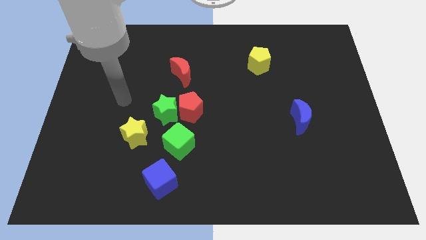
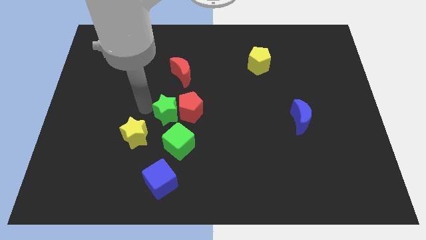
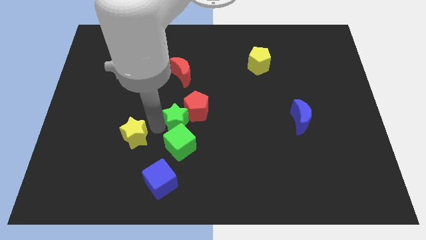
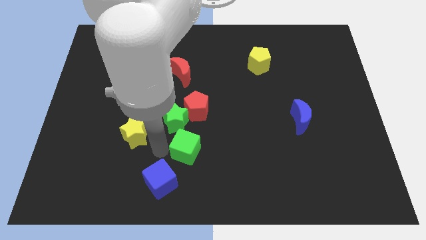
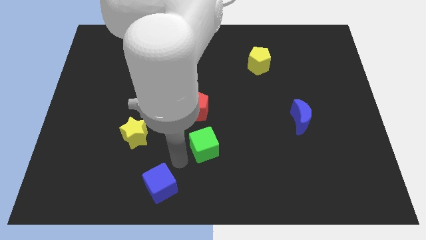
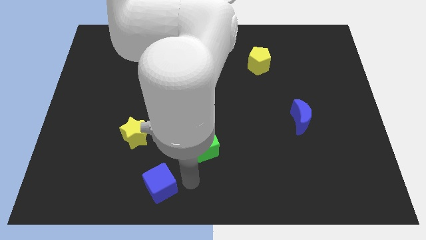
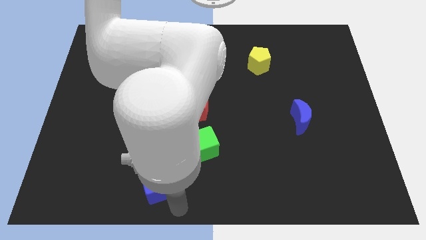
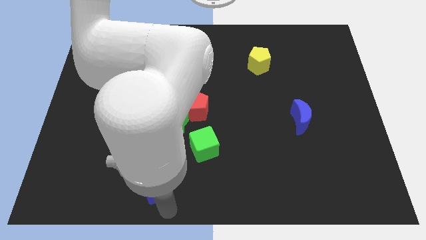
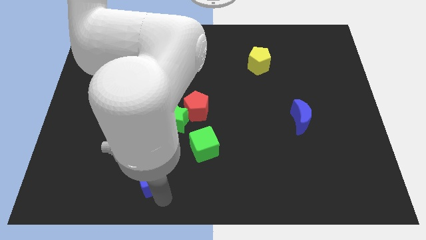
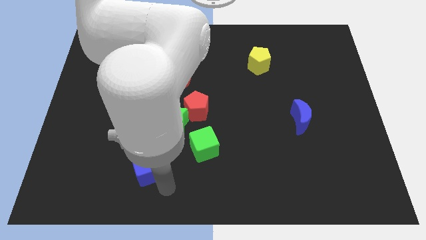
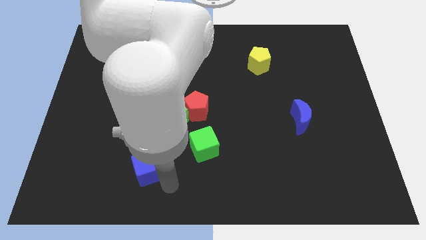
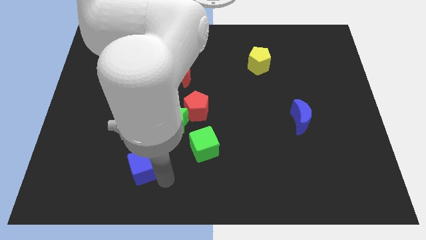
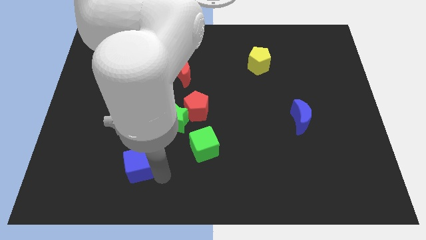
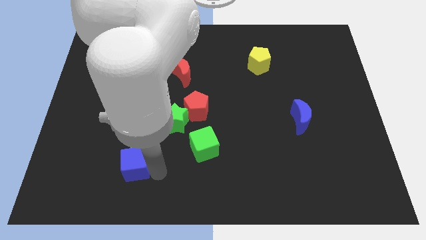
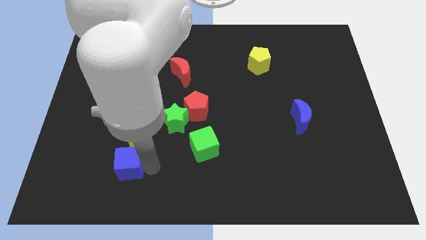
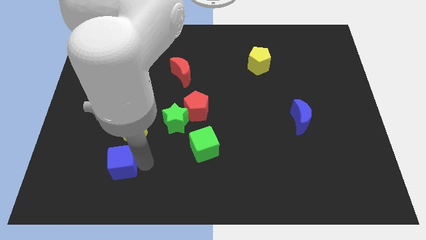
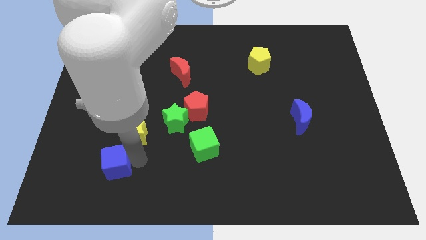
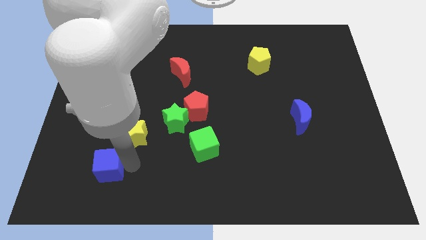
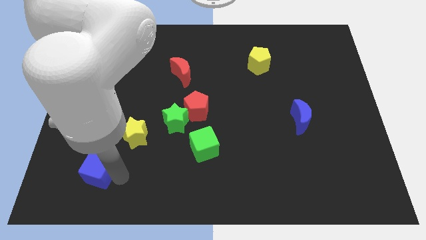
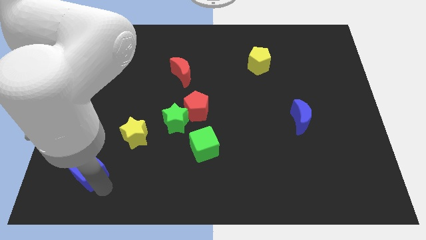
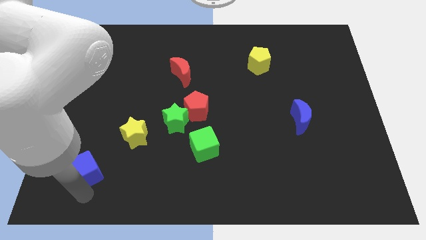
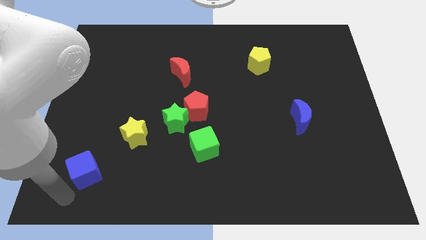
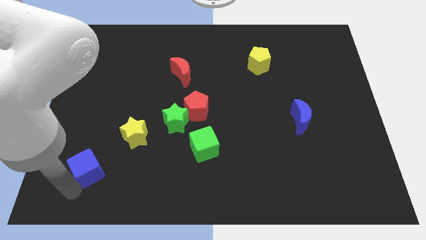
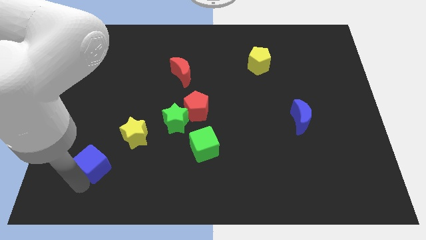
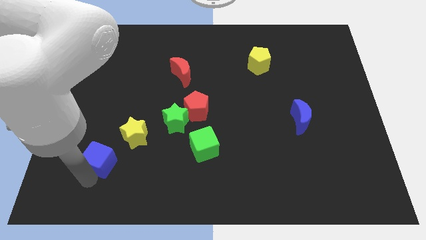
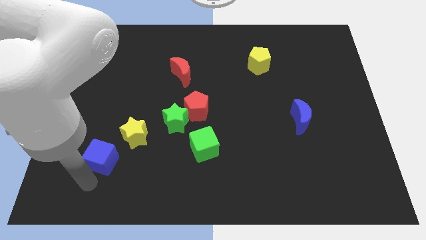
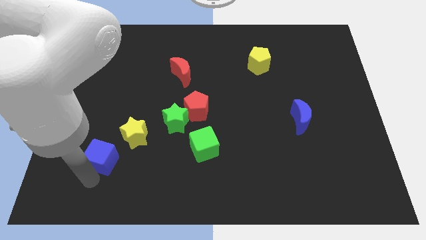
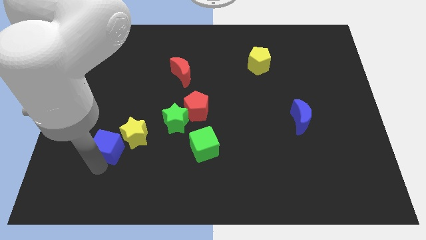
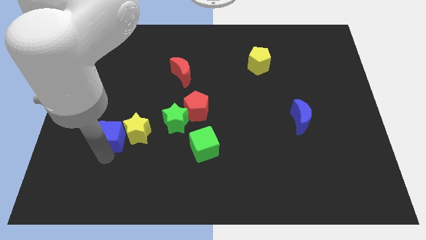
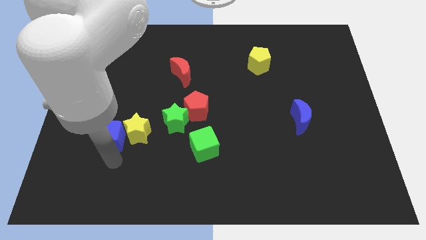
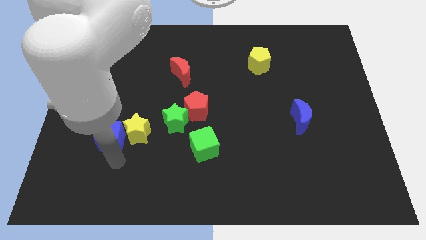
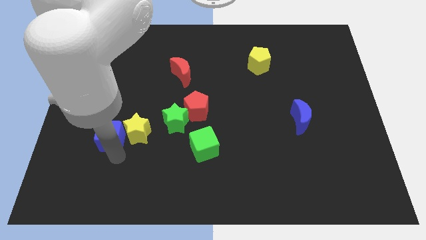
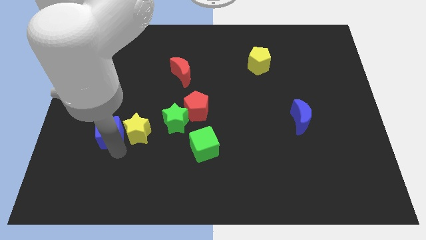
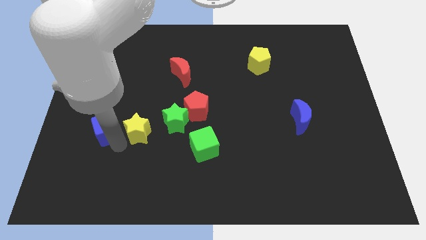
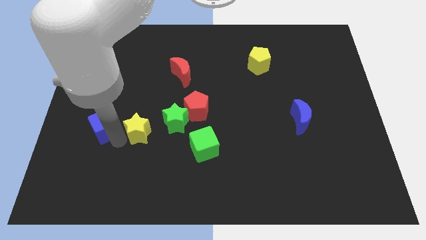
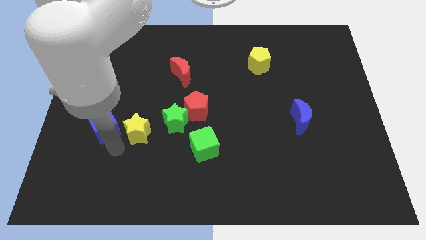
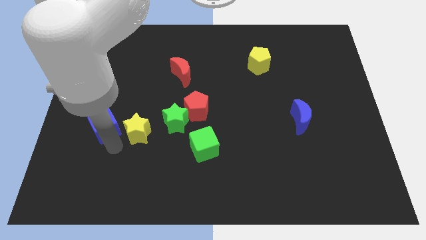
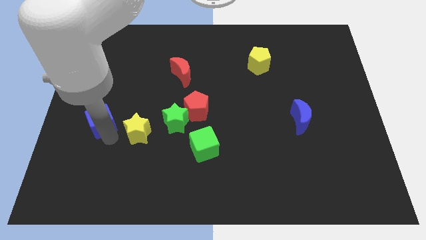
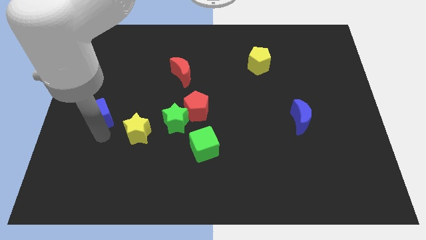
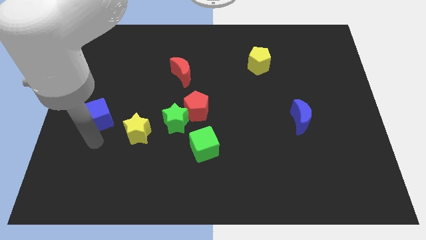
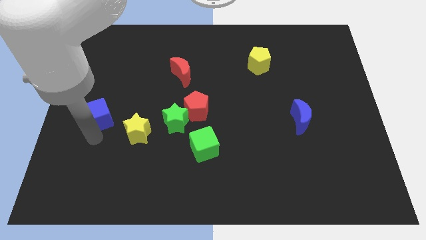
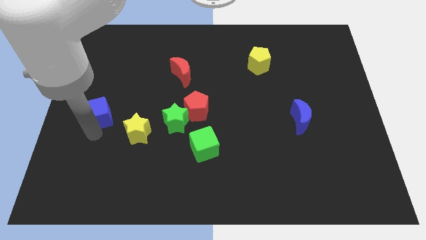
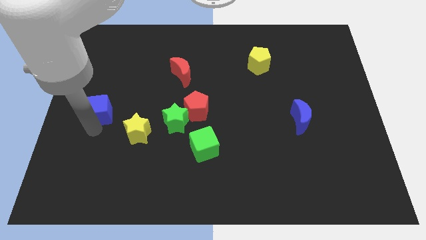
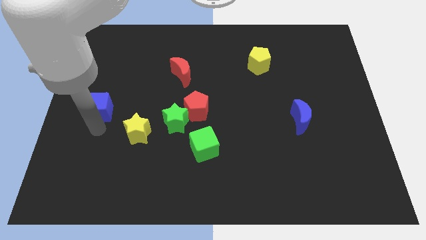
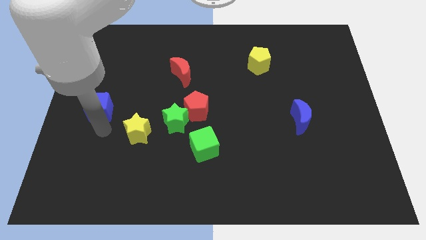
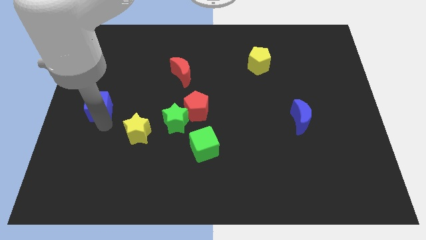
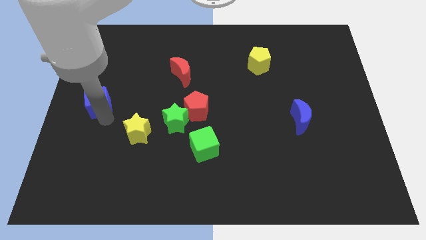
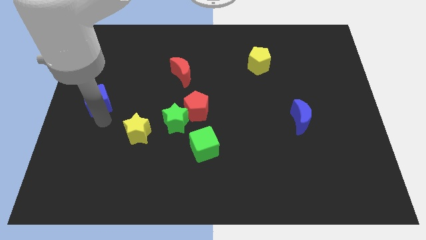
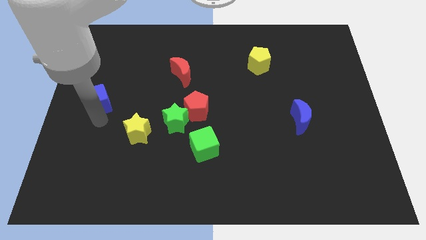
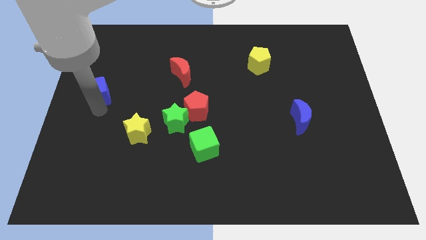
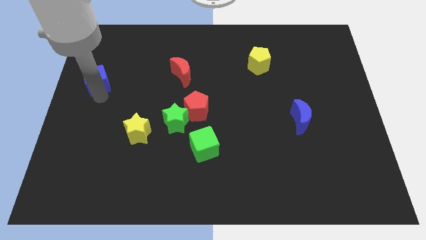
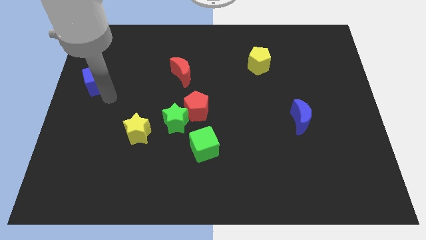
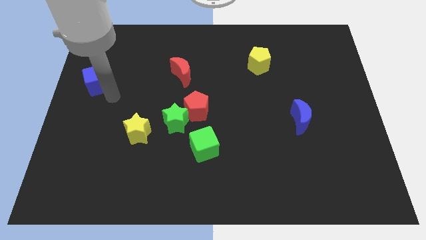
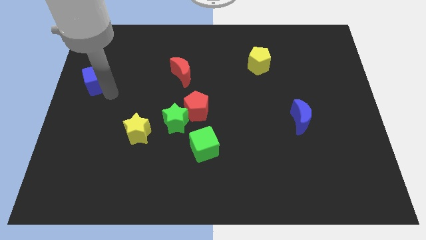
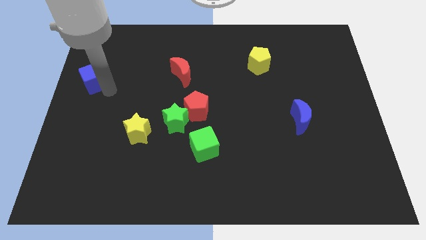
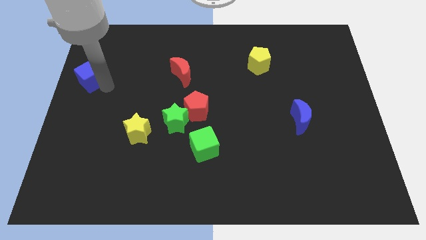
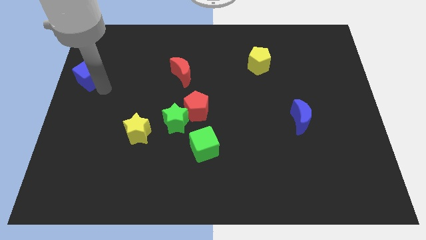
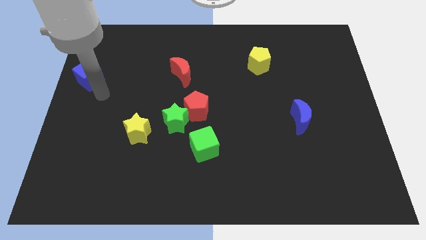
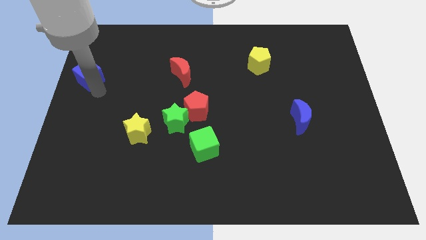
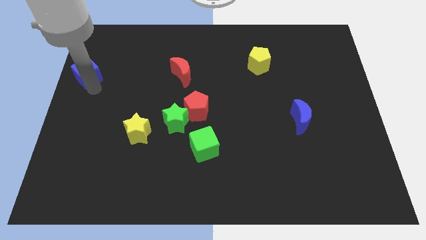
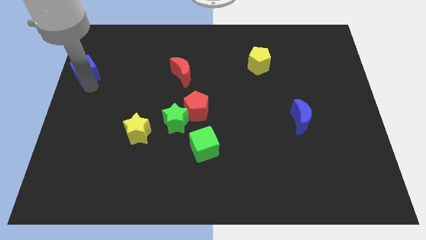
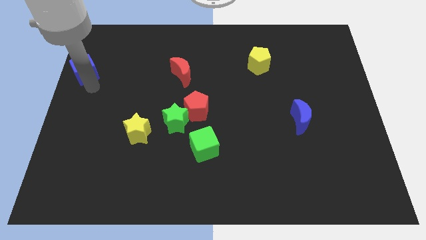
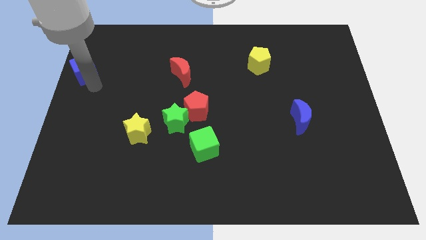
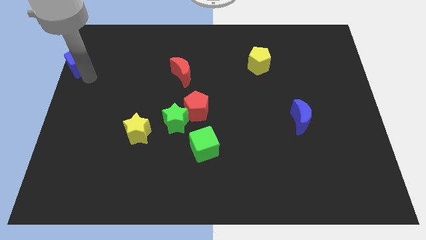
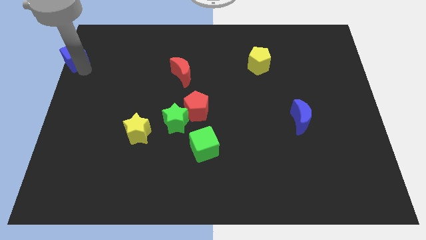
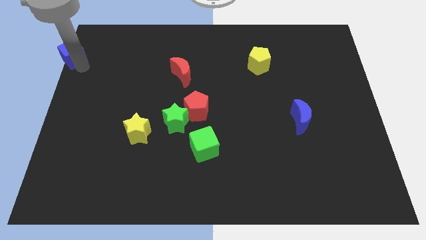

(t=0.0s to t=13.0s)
put the blue cube to the top left corner

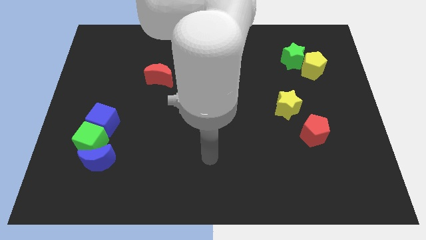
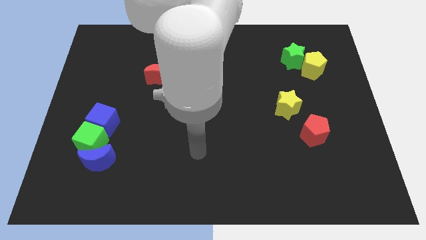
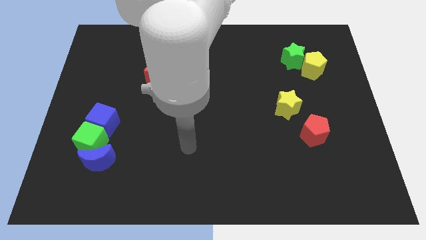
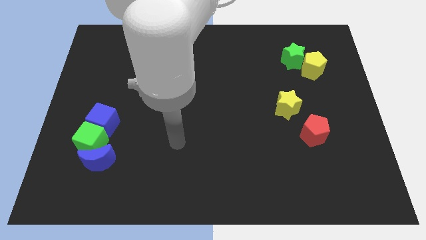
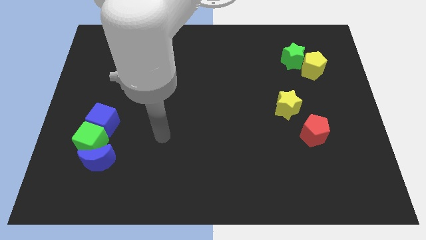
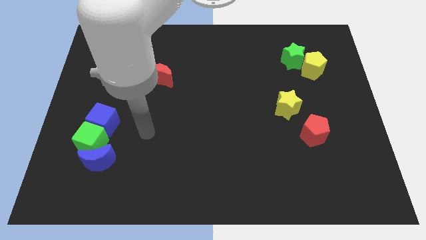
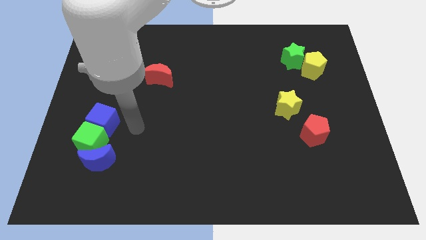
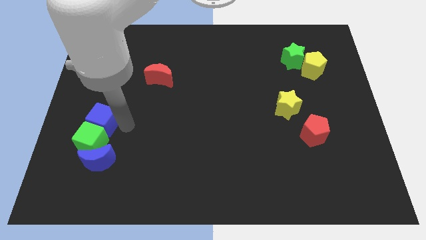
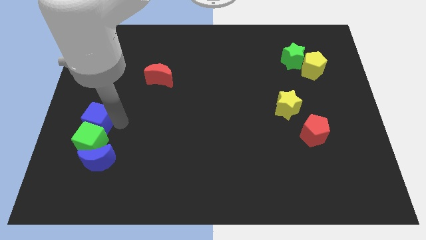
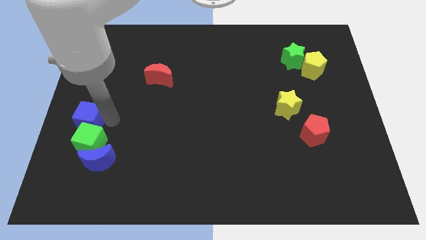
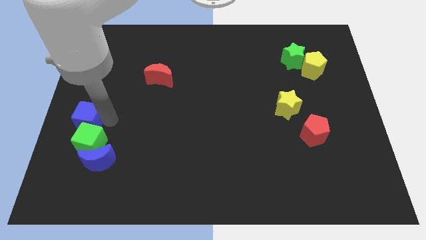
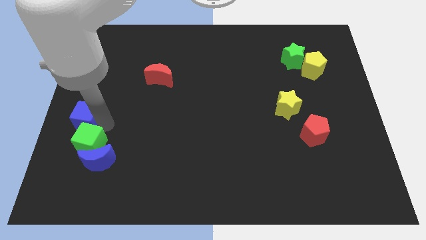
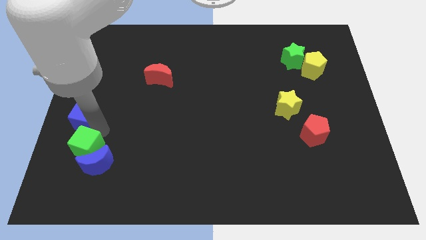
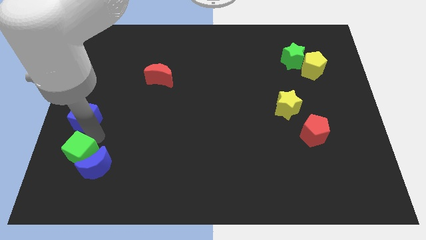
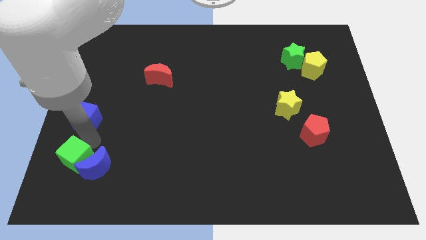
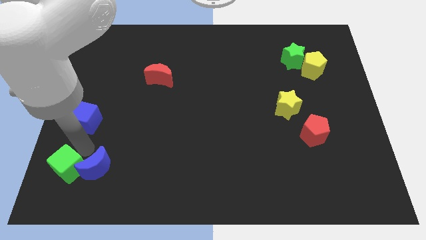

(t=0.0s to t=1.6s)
put the green cube to the bottom left corner
